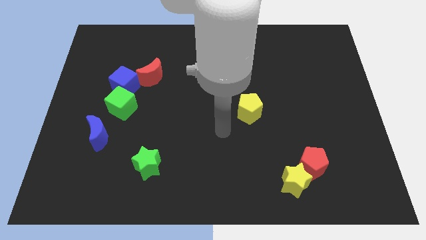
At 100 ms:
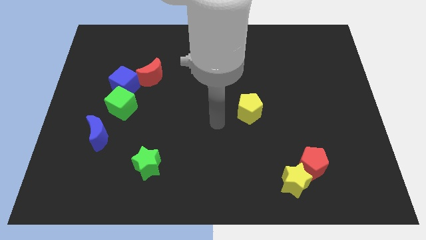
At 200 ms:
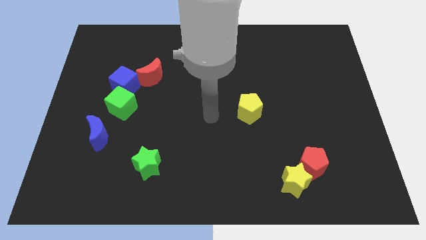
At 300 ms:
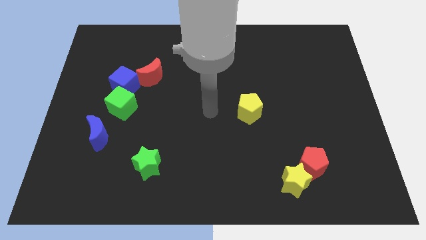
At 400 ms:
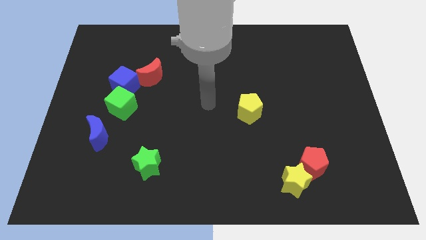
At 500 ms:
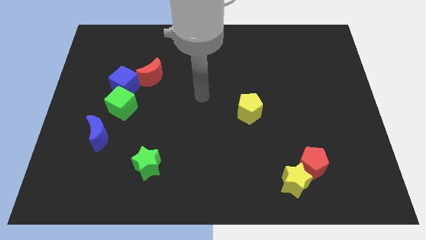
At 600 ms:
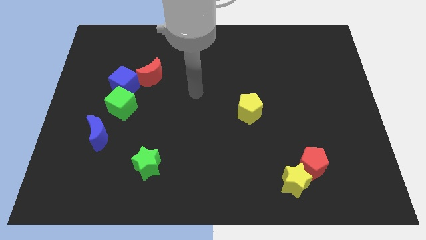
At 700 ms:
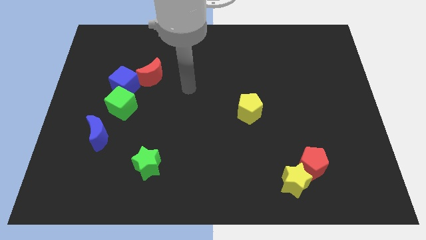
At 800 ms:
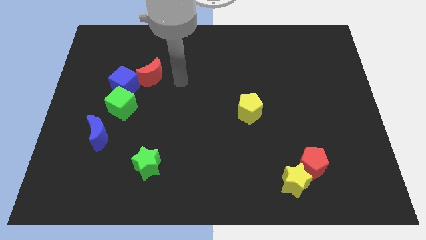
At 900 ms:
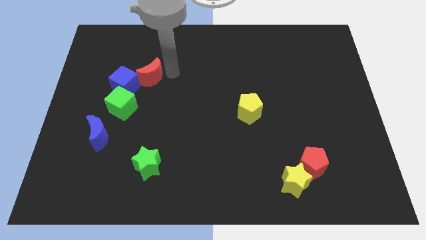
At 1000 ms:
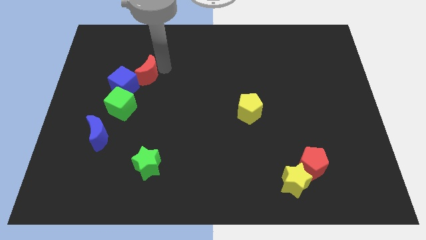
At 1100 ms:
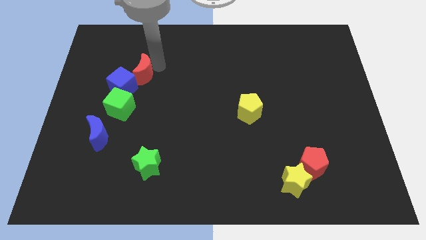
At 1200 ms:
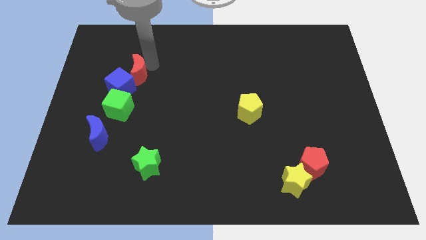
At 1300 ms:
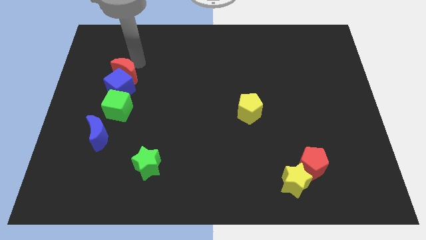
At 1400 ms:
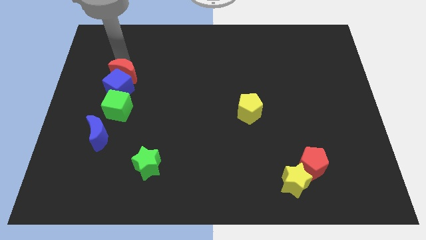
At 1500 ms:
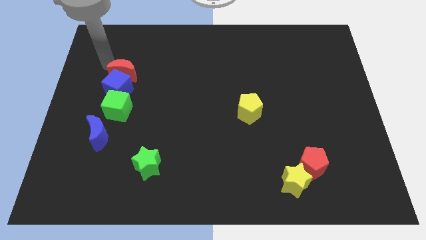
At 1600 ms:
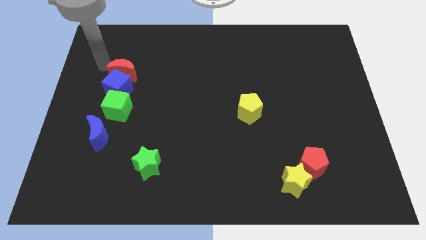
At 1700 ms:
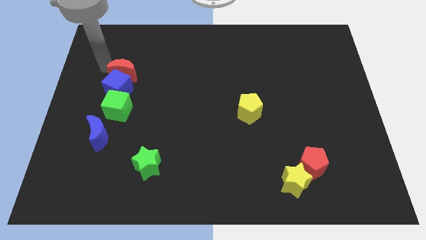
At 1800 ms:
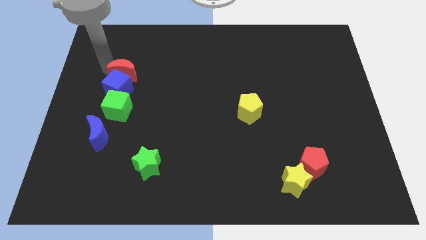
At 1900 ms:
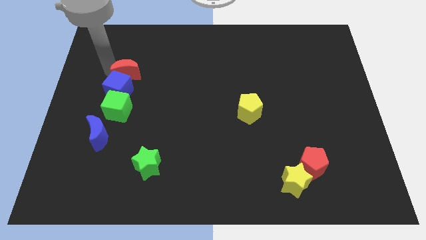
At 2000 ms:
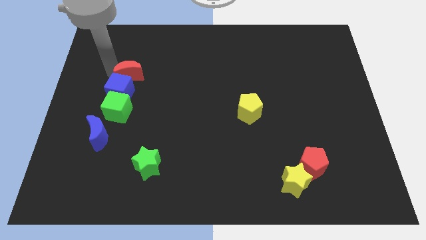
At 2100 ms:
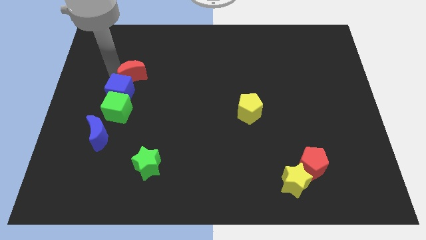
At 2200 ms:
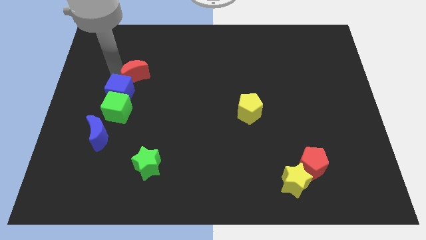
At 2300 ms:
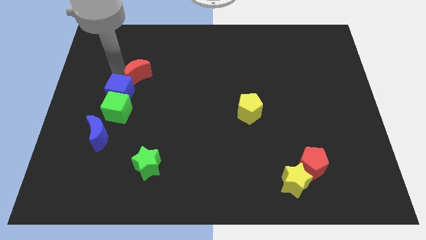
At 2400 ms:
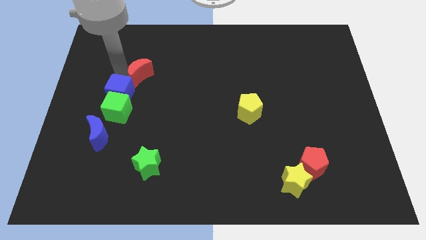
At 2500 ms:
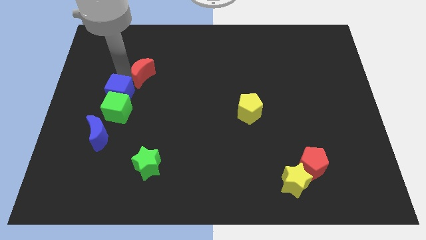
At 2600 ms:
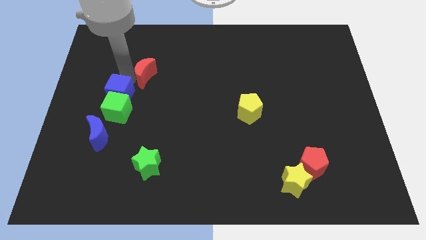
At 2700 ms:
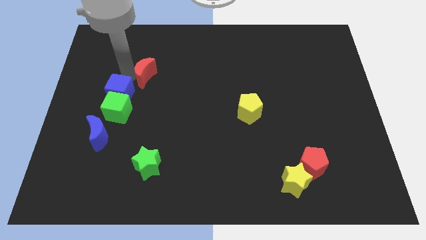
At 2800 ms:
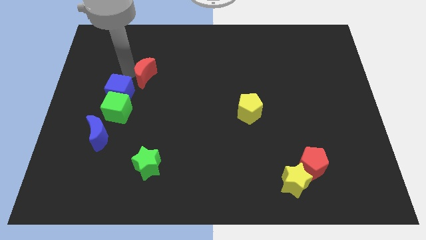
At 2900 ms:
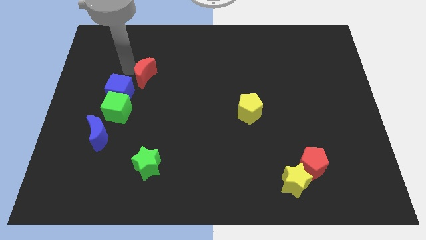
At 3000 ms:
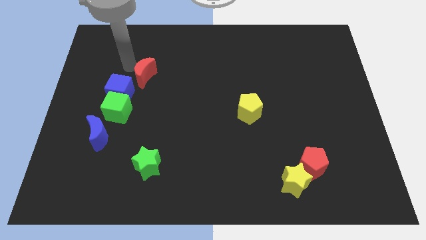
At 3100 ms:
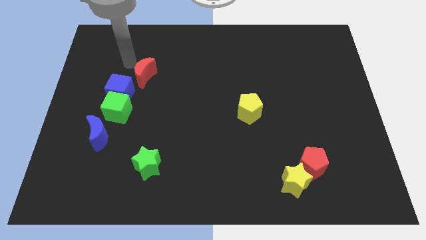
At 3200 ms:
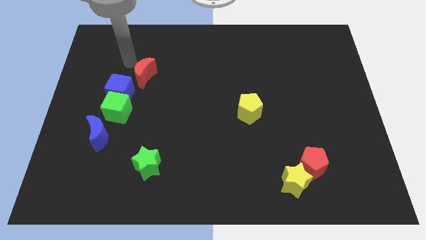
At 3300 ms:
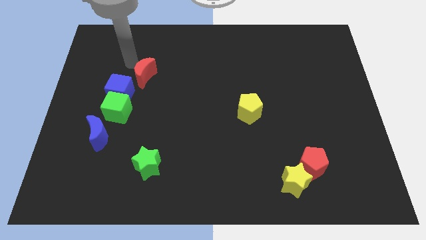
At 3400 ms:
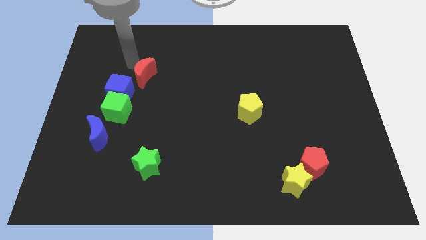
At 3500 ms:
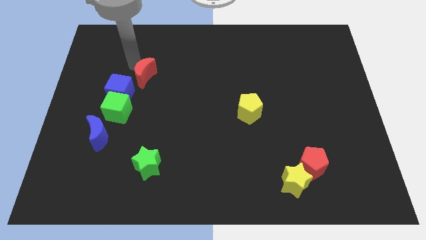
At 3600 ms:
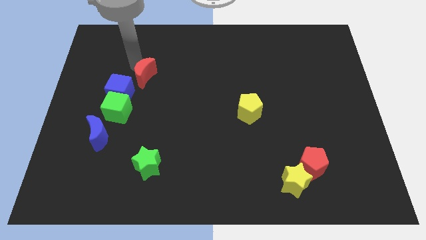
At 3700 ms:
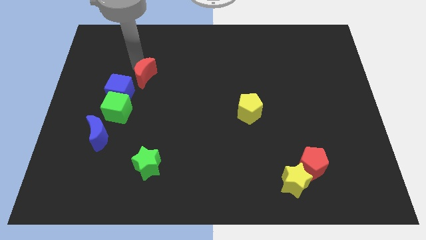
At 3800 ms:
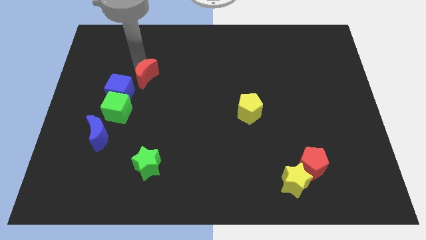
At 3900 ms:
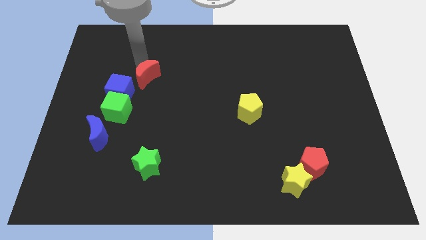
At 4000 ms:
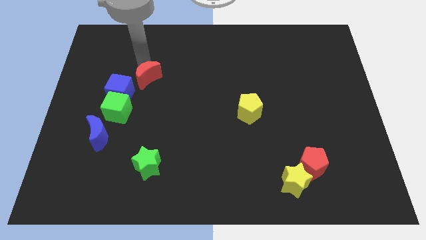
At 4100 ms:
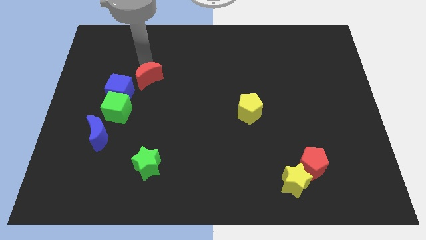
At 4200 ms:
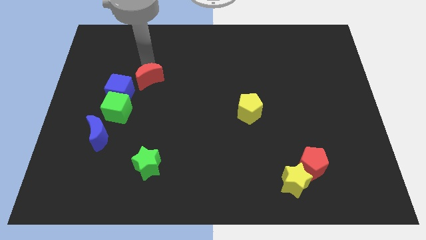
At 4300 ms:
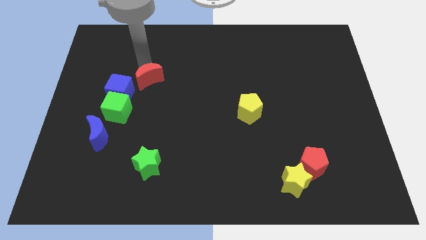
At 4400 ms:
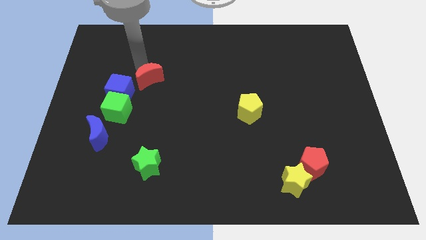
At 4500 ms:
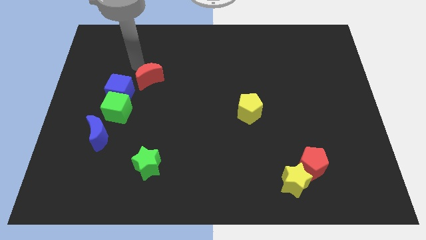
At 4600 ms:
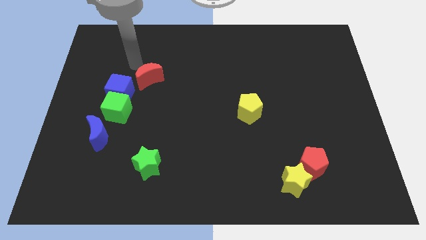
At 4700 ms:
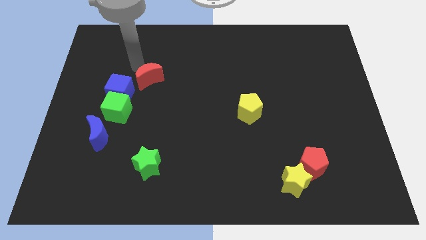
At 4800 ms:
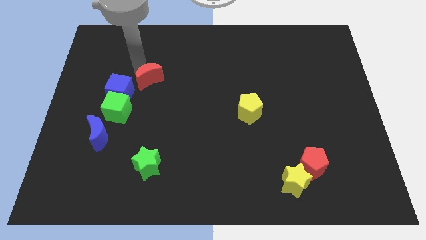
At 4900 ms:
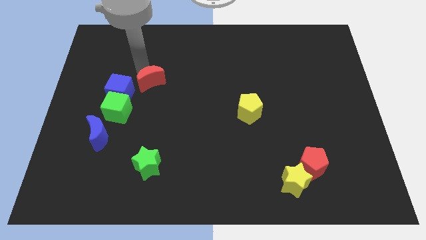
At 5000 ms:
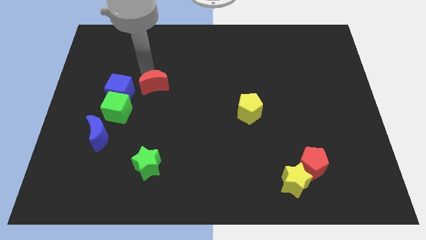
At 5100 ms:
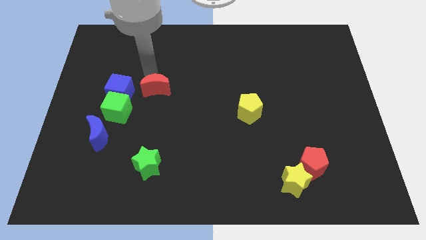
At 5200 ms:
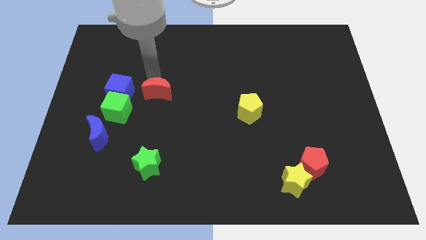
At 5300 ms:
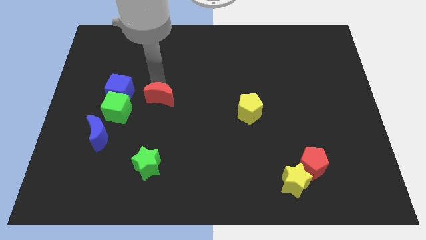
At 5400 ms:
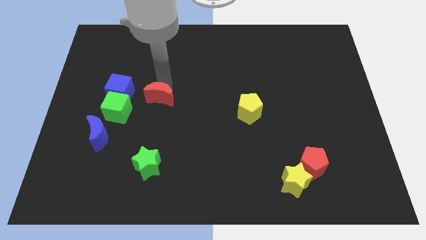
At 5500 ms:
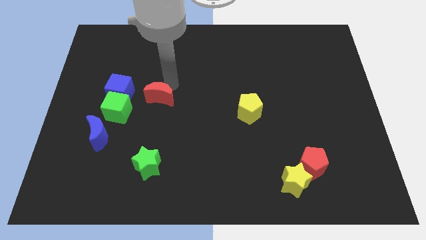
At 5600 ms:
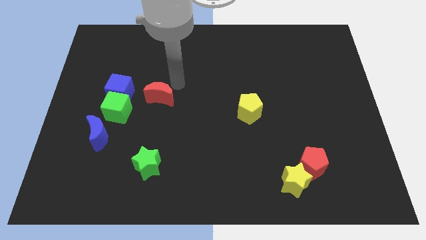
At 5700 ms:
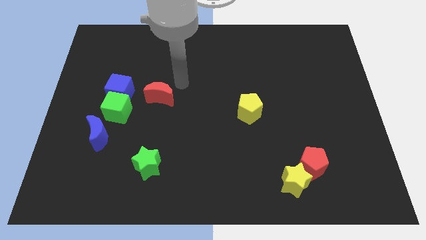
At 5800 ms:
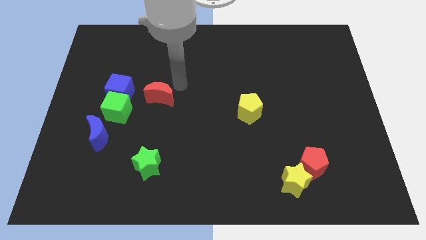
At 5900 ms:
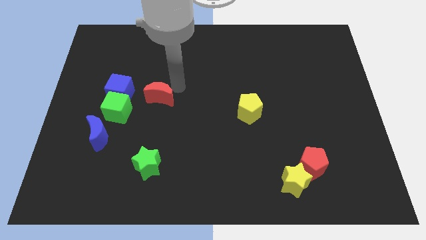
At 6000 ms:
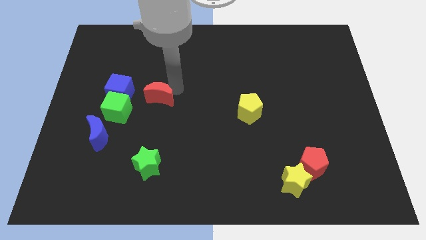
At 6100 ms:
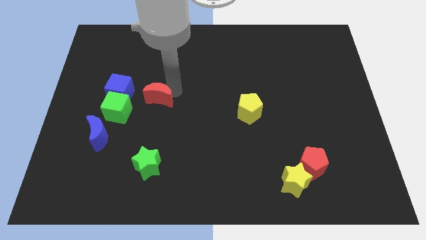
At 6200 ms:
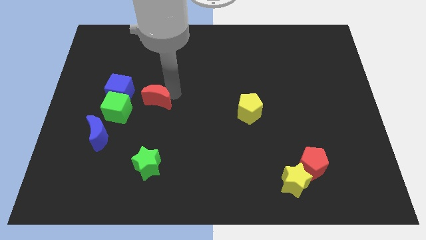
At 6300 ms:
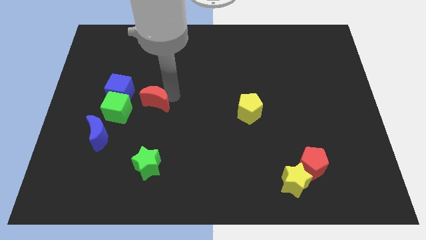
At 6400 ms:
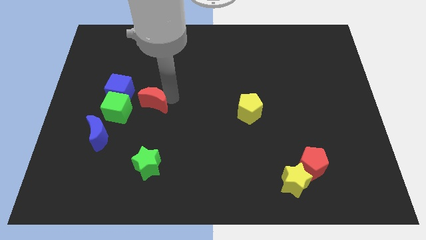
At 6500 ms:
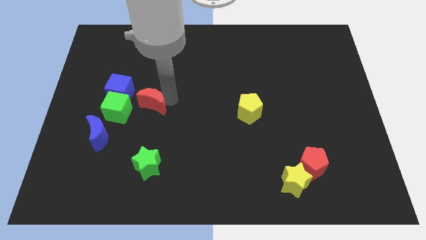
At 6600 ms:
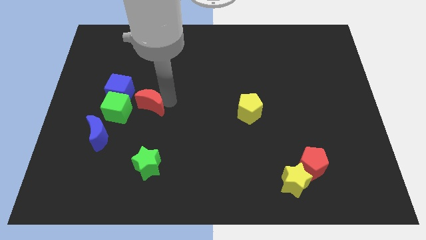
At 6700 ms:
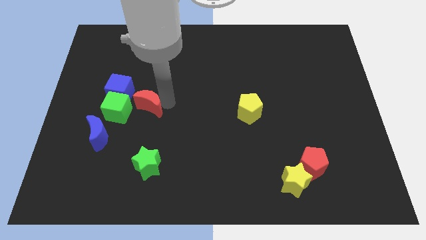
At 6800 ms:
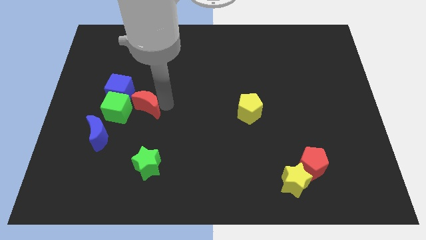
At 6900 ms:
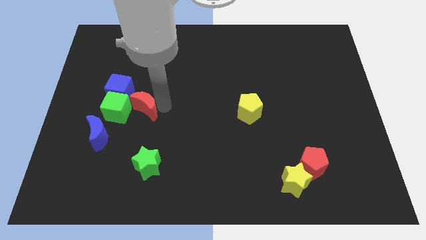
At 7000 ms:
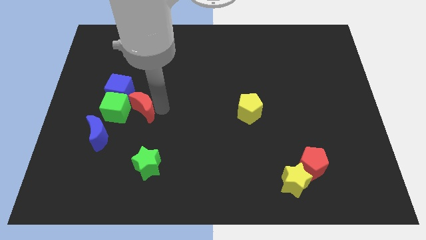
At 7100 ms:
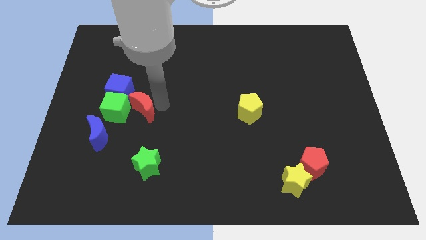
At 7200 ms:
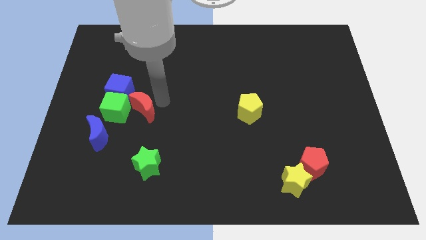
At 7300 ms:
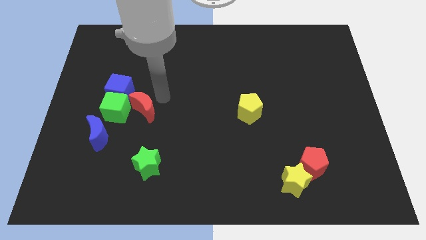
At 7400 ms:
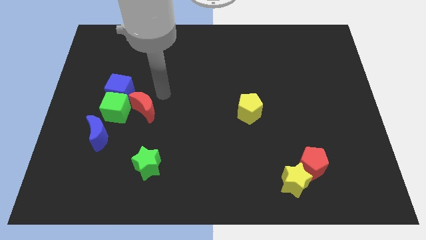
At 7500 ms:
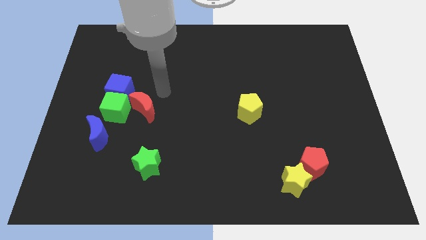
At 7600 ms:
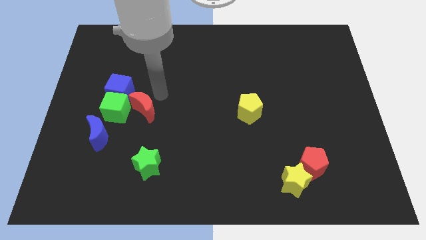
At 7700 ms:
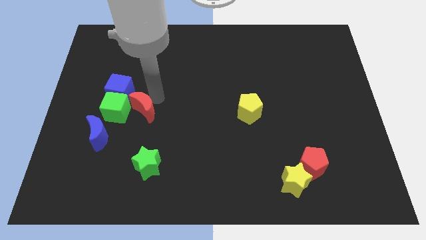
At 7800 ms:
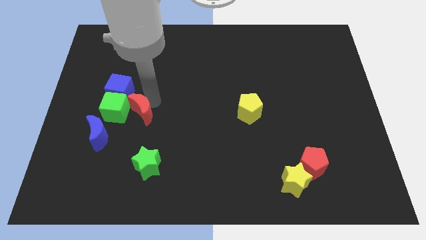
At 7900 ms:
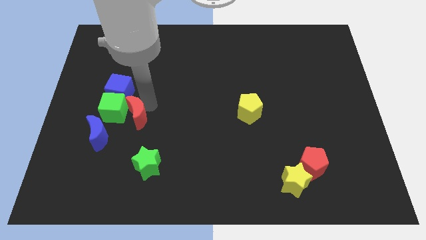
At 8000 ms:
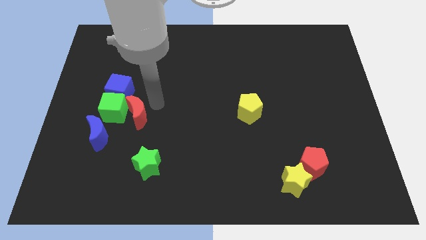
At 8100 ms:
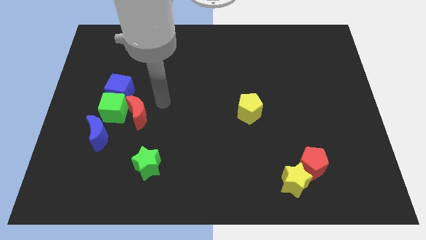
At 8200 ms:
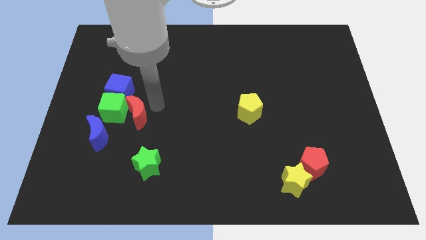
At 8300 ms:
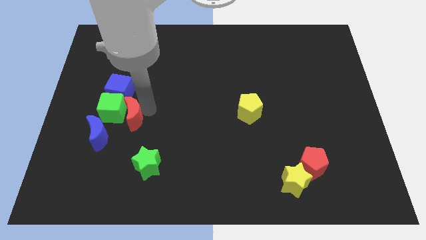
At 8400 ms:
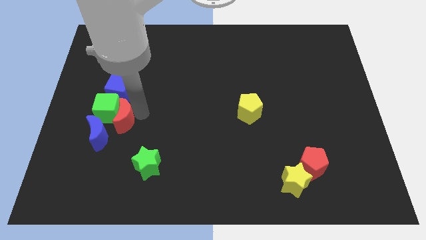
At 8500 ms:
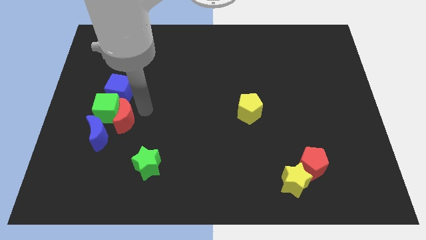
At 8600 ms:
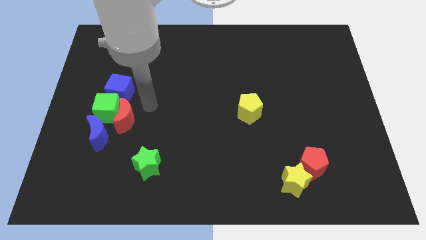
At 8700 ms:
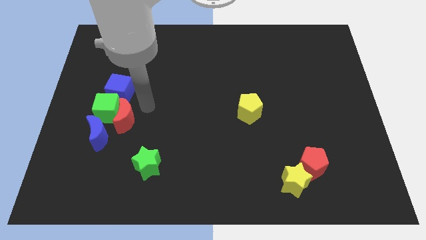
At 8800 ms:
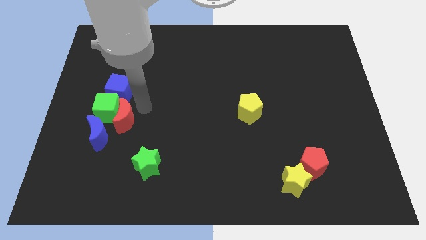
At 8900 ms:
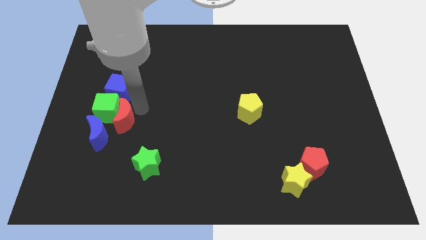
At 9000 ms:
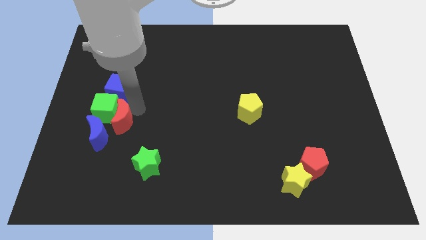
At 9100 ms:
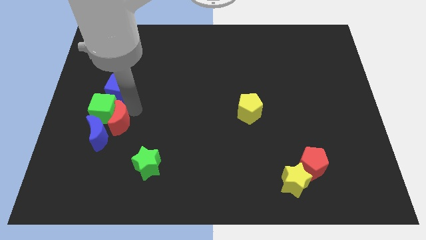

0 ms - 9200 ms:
move the red moon towards the blue moon
